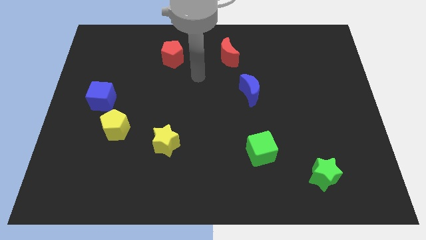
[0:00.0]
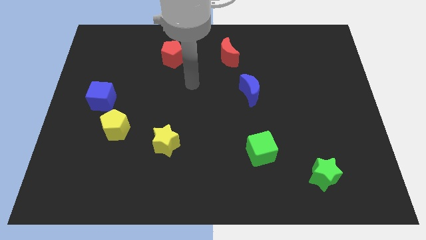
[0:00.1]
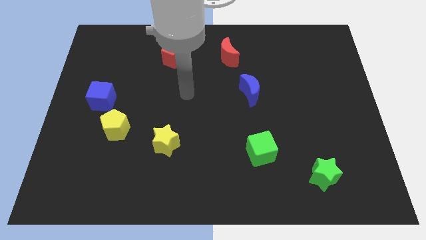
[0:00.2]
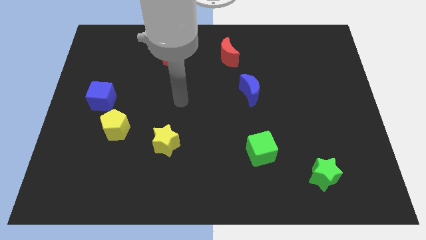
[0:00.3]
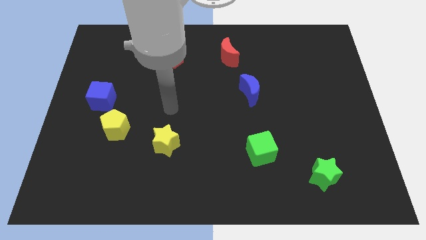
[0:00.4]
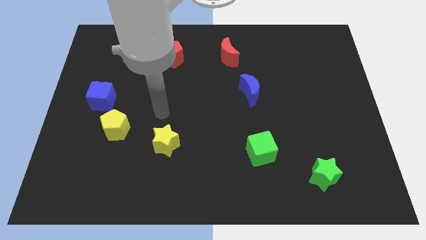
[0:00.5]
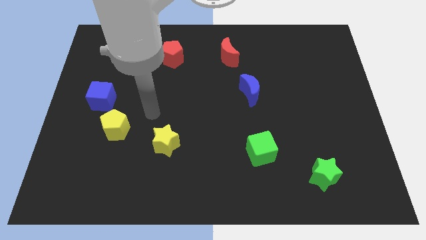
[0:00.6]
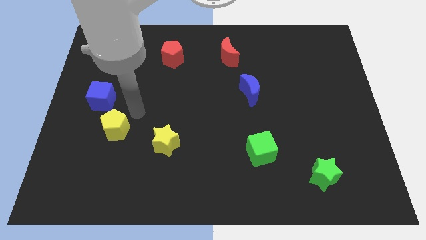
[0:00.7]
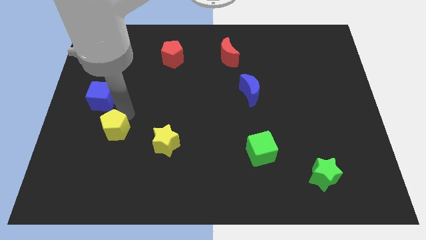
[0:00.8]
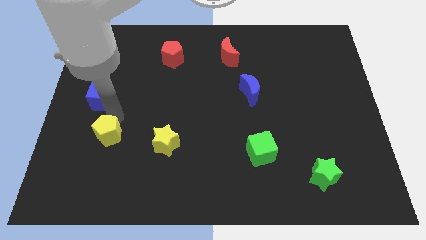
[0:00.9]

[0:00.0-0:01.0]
pull the blue cube apart from the yellow pentagon

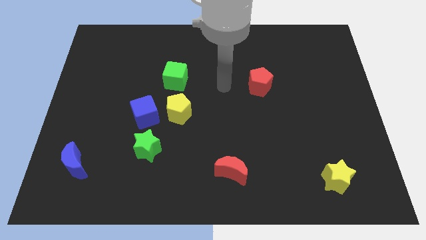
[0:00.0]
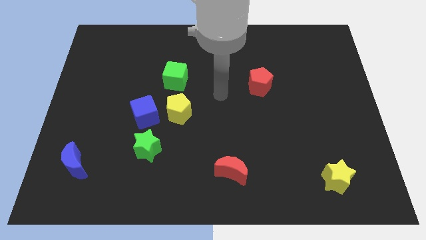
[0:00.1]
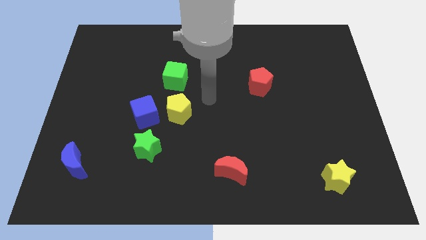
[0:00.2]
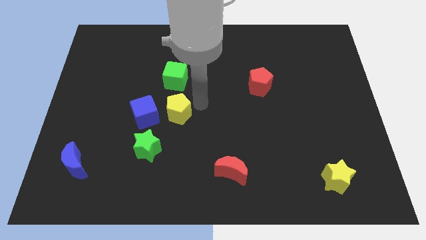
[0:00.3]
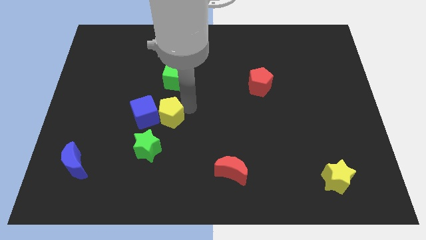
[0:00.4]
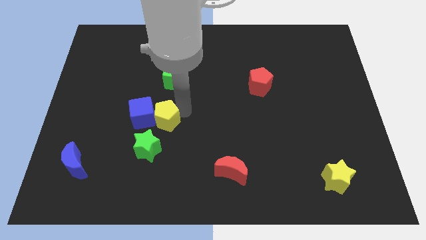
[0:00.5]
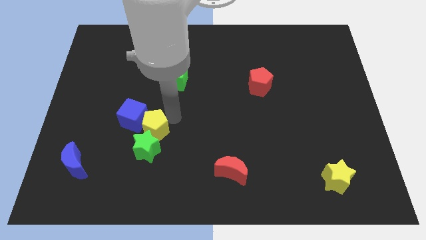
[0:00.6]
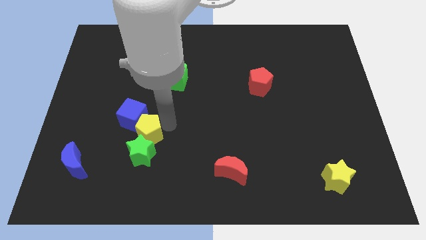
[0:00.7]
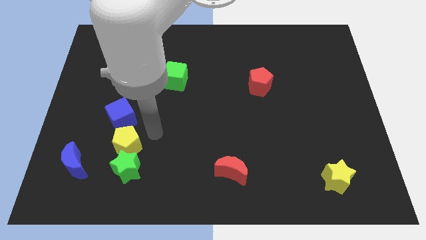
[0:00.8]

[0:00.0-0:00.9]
pull the blue cube apart from the yellow pentagon and green star

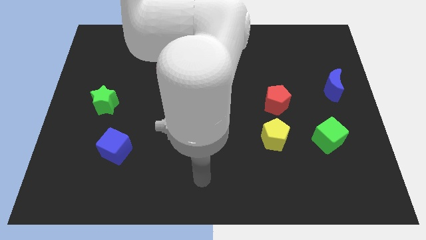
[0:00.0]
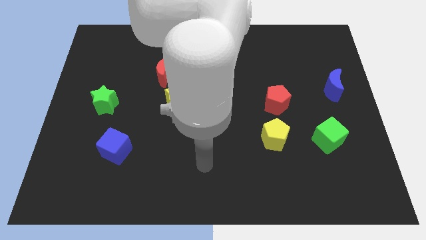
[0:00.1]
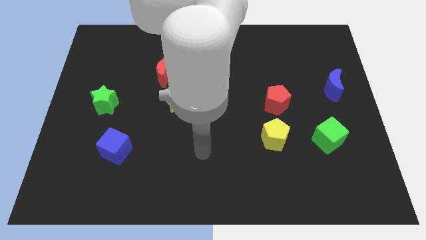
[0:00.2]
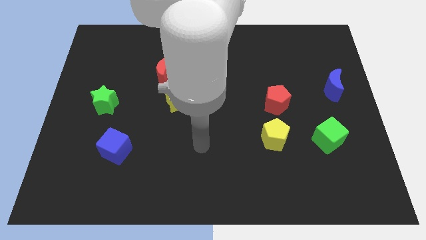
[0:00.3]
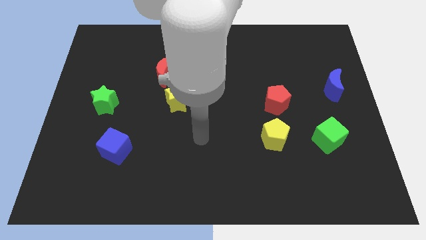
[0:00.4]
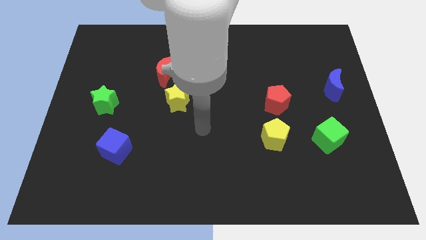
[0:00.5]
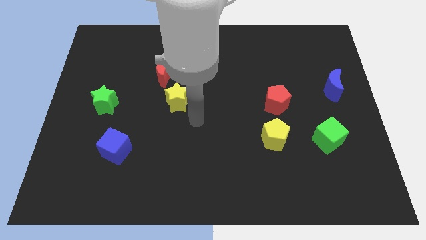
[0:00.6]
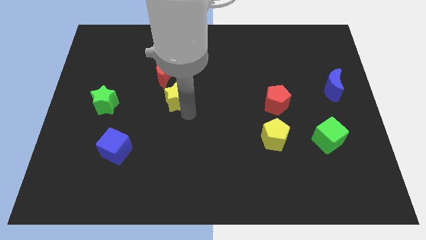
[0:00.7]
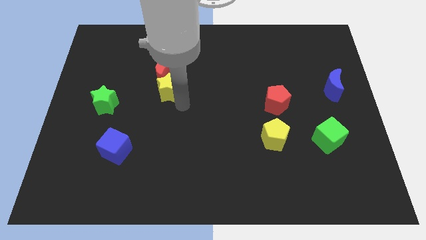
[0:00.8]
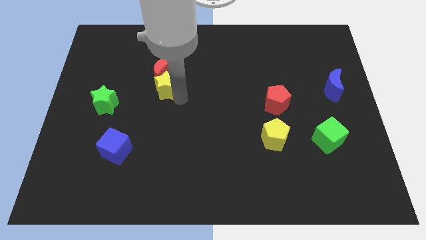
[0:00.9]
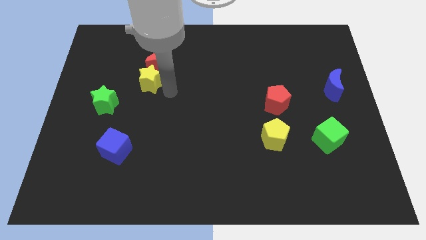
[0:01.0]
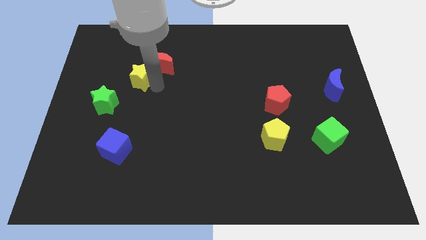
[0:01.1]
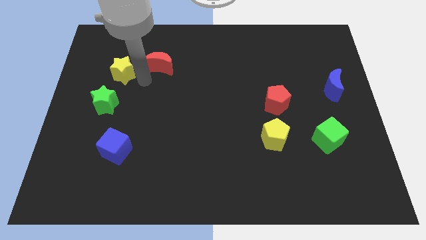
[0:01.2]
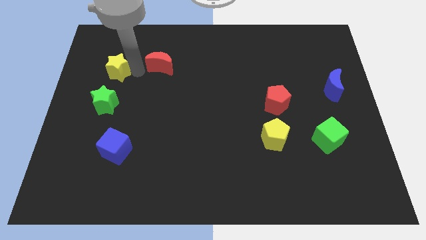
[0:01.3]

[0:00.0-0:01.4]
move the red moon away from the yellow star

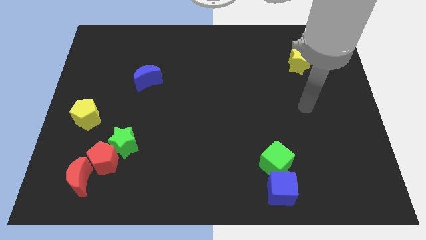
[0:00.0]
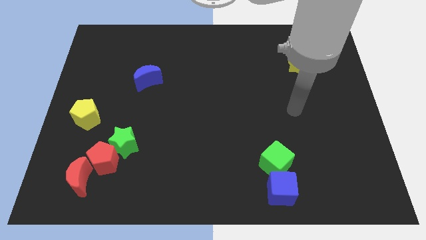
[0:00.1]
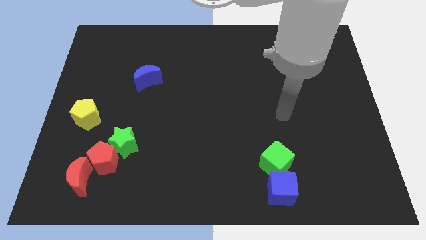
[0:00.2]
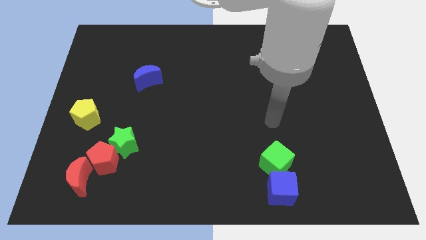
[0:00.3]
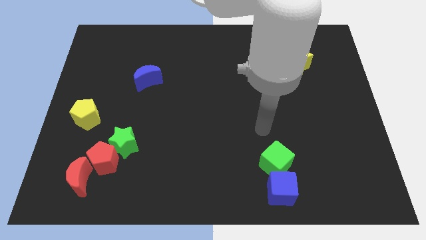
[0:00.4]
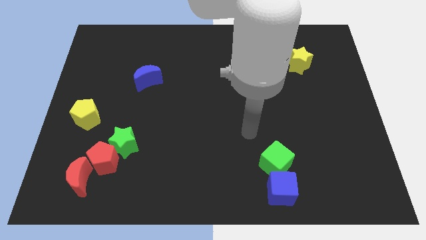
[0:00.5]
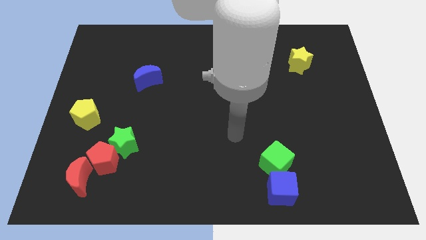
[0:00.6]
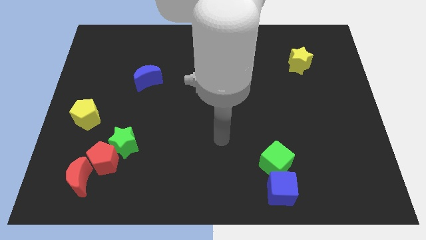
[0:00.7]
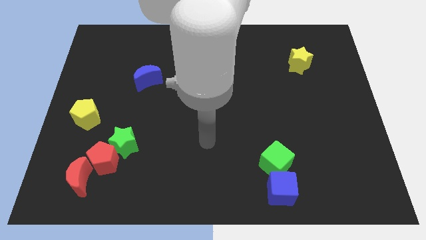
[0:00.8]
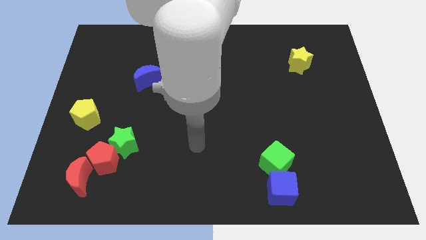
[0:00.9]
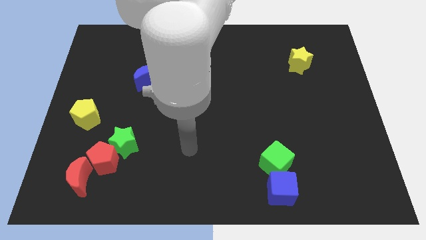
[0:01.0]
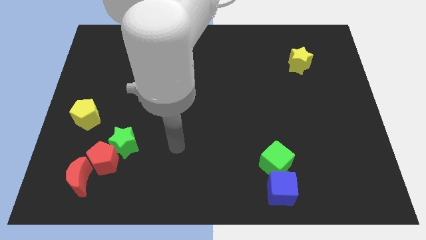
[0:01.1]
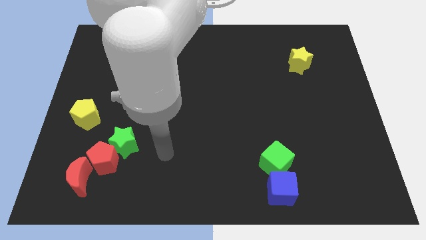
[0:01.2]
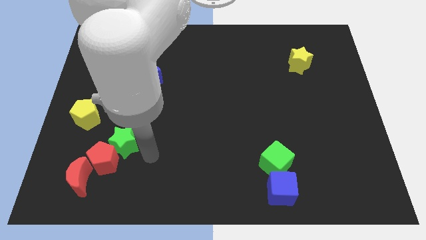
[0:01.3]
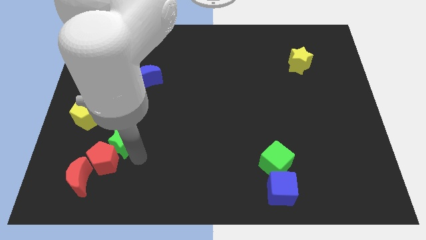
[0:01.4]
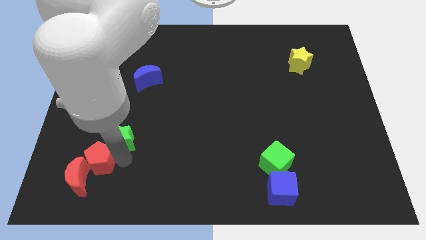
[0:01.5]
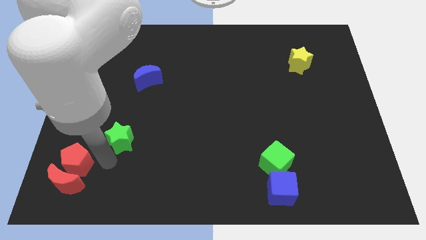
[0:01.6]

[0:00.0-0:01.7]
pull the green star apart from the red pentagon

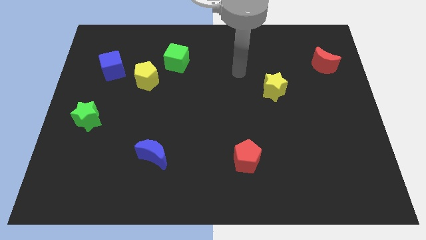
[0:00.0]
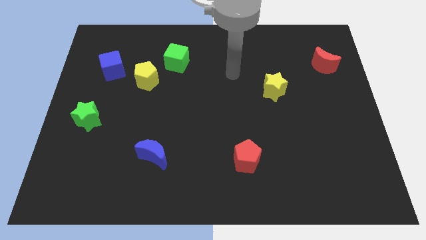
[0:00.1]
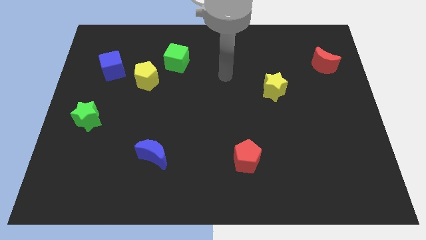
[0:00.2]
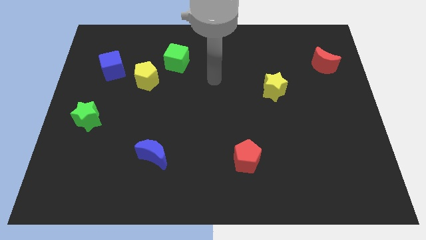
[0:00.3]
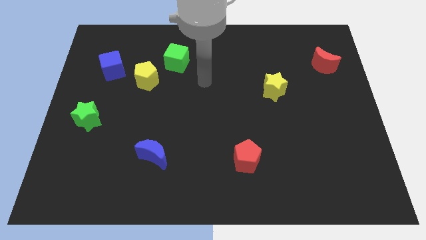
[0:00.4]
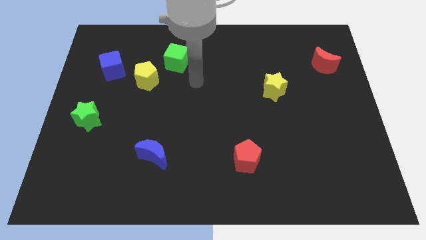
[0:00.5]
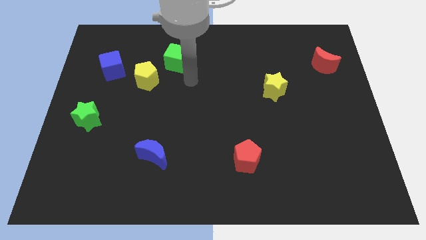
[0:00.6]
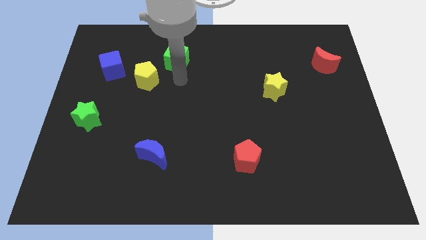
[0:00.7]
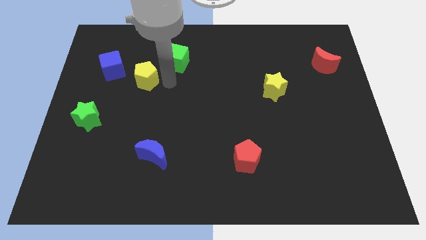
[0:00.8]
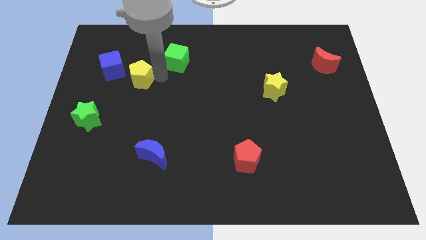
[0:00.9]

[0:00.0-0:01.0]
separate the green cube from the yellow pentagon

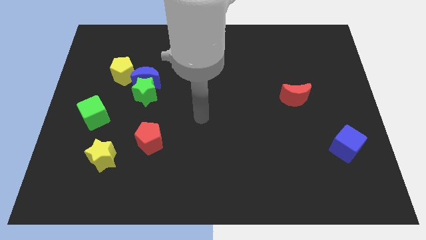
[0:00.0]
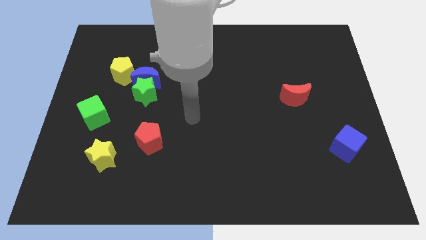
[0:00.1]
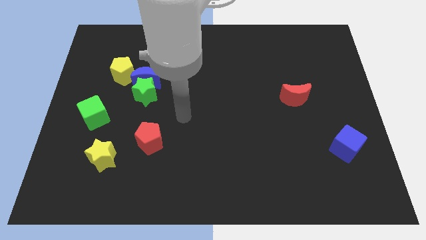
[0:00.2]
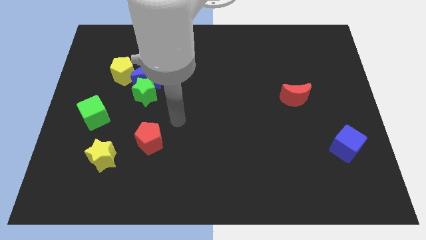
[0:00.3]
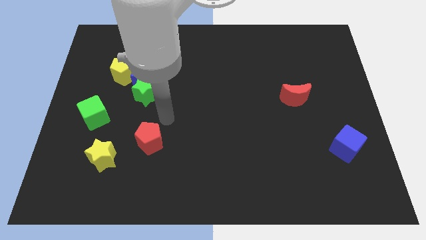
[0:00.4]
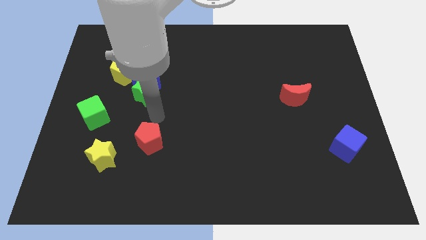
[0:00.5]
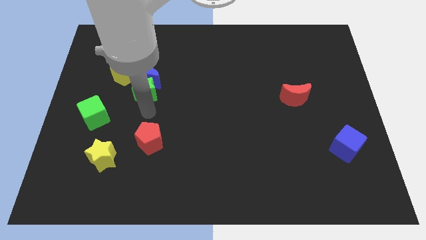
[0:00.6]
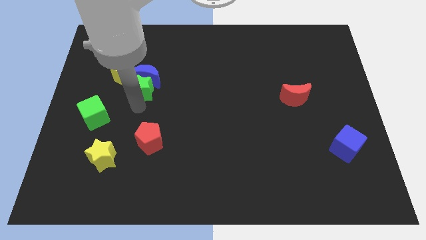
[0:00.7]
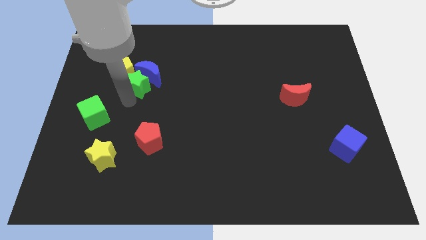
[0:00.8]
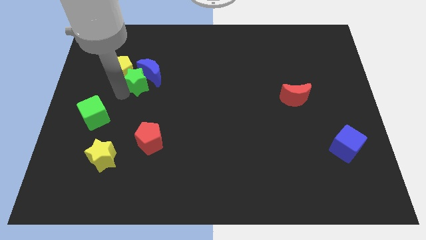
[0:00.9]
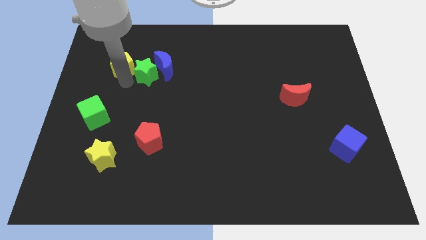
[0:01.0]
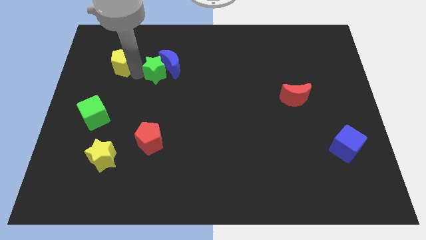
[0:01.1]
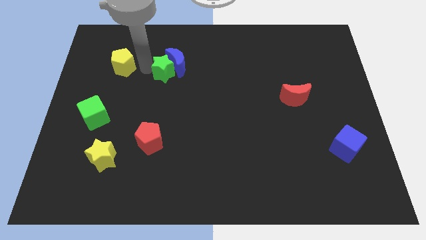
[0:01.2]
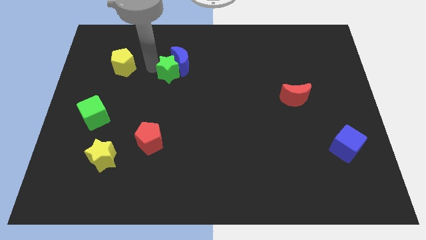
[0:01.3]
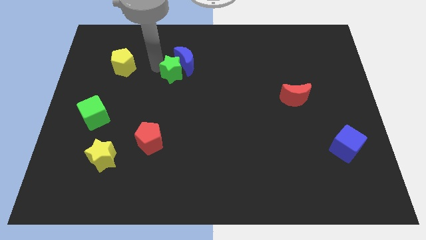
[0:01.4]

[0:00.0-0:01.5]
separate the blue moon from the green star and yellow pentagon

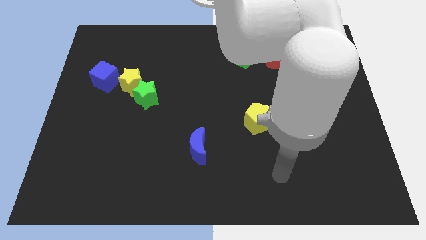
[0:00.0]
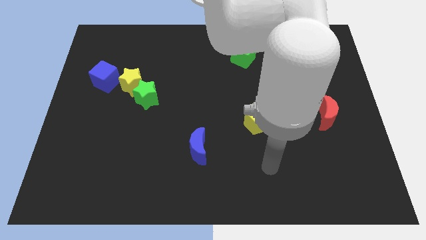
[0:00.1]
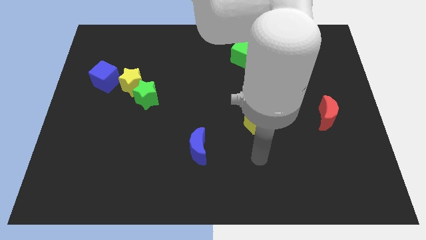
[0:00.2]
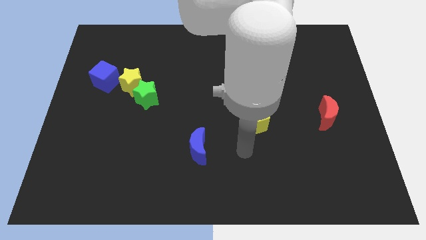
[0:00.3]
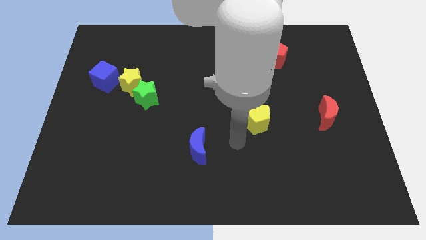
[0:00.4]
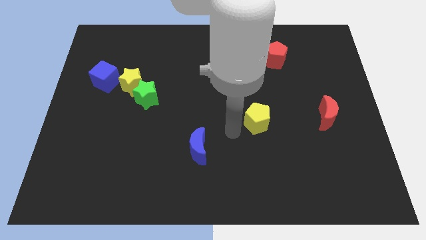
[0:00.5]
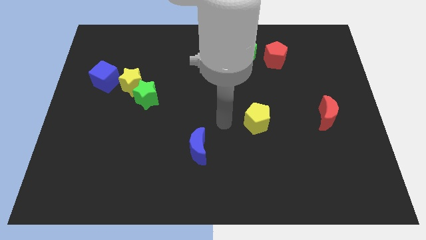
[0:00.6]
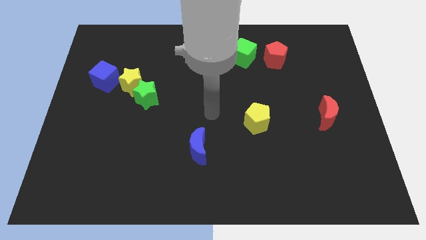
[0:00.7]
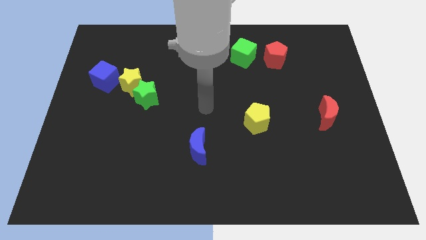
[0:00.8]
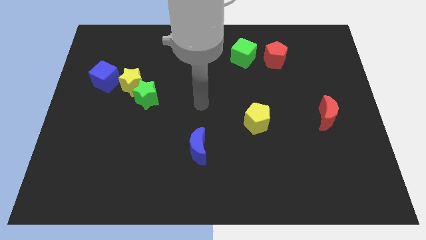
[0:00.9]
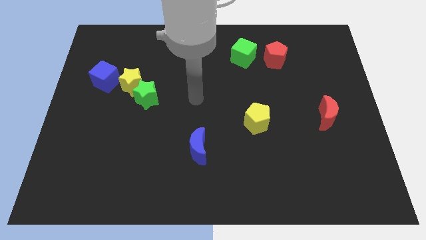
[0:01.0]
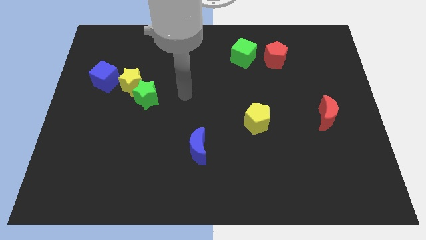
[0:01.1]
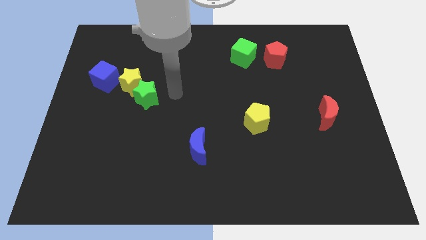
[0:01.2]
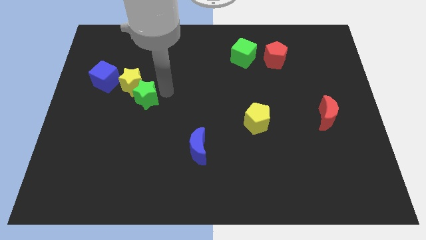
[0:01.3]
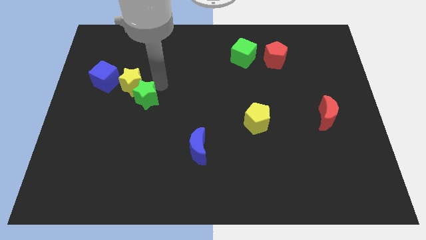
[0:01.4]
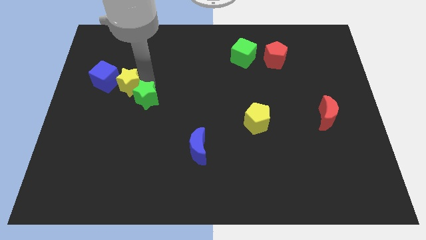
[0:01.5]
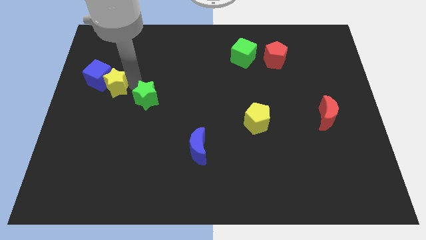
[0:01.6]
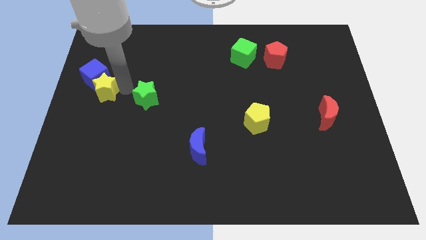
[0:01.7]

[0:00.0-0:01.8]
move the green star away from the yellow star
